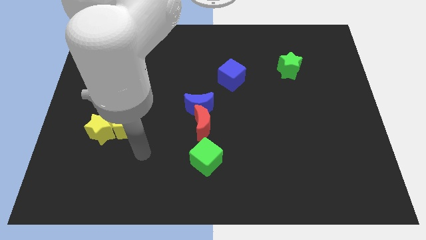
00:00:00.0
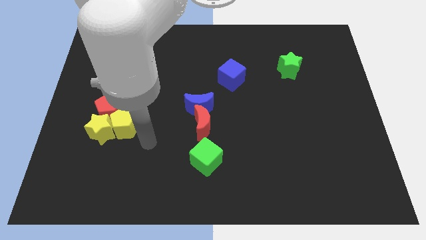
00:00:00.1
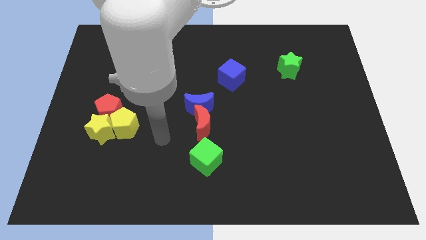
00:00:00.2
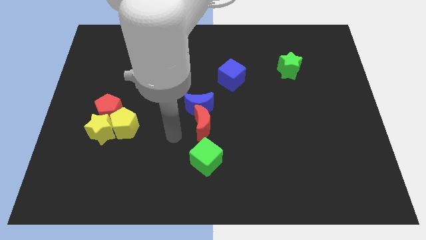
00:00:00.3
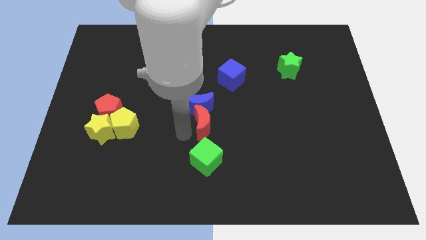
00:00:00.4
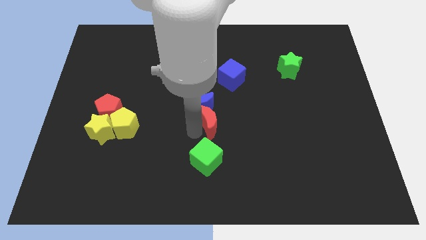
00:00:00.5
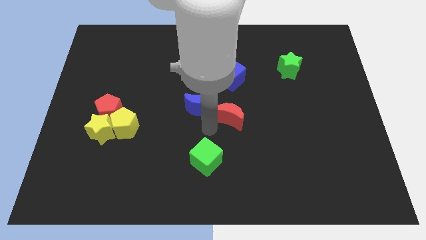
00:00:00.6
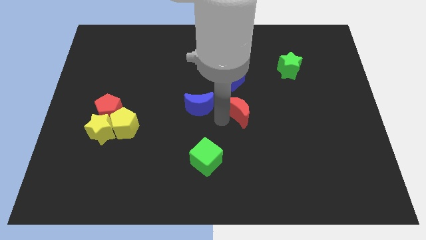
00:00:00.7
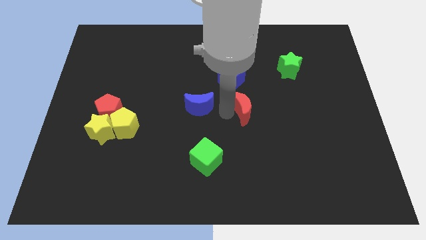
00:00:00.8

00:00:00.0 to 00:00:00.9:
separate the blue moon from the red moon

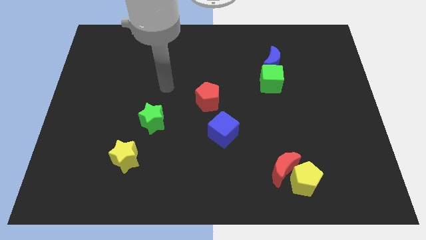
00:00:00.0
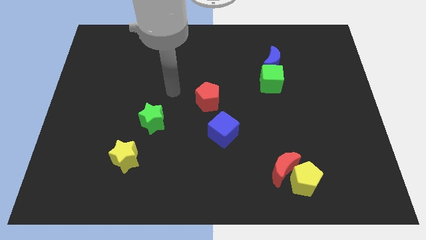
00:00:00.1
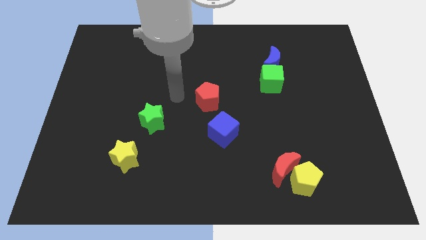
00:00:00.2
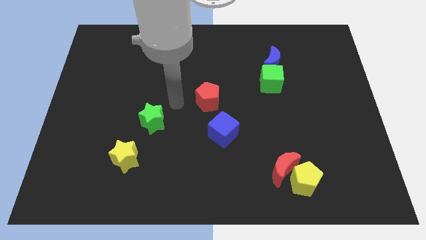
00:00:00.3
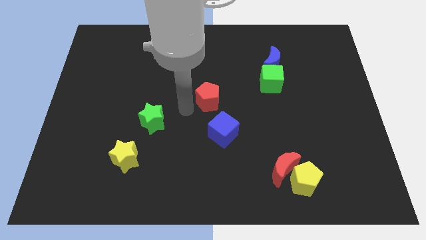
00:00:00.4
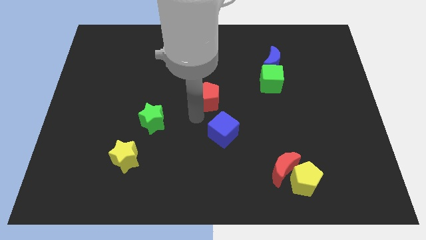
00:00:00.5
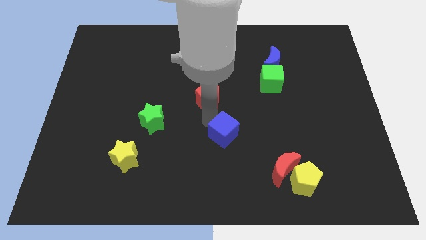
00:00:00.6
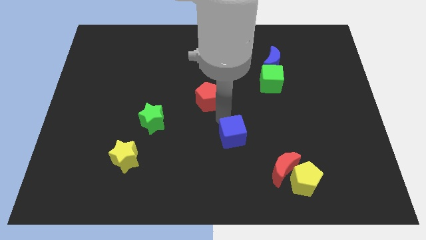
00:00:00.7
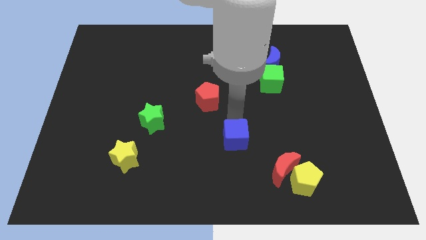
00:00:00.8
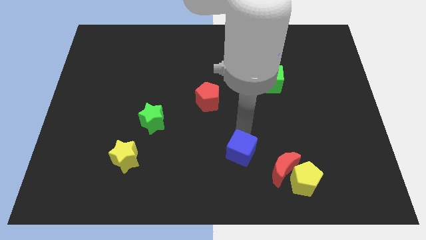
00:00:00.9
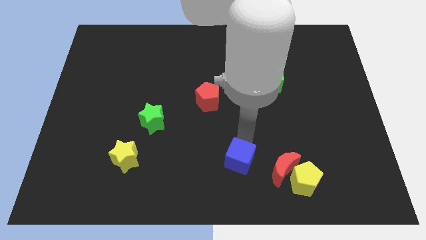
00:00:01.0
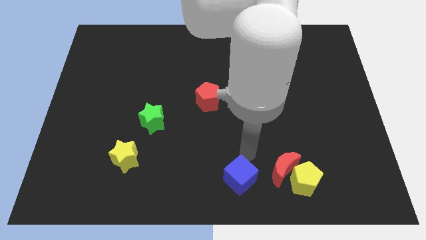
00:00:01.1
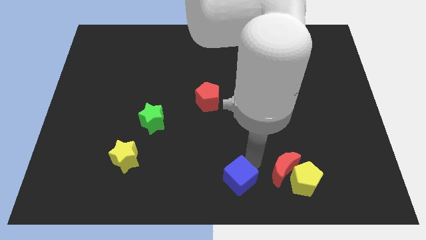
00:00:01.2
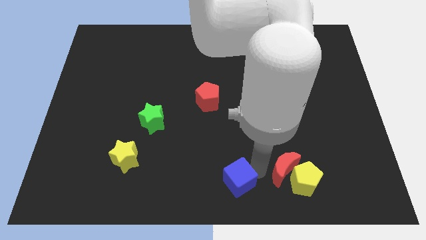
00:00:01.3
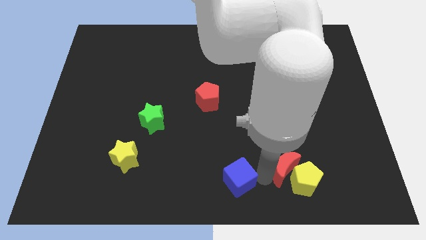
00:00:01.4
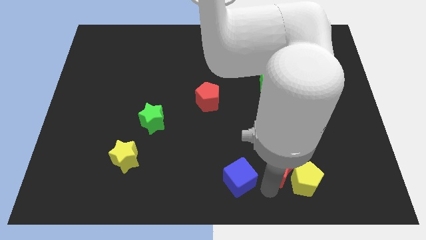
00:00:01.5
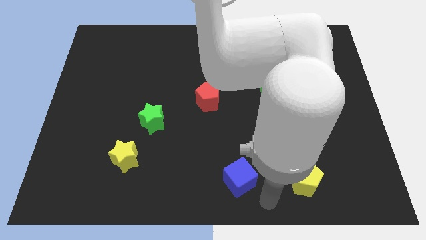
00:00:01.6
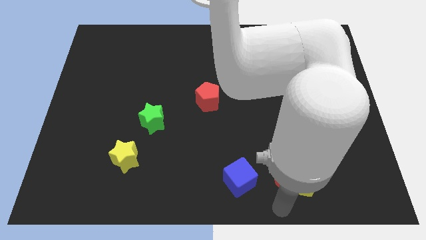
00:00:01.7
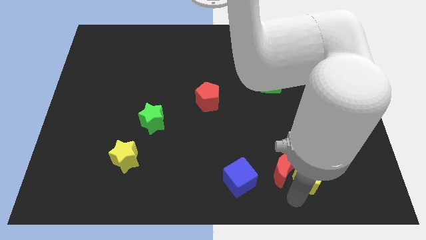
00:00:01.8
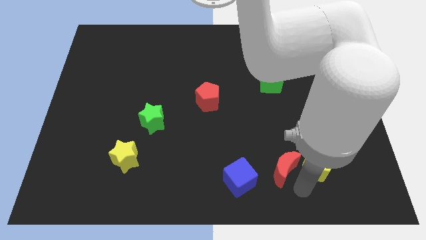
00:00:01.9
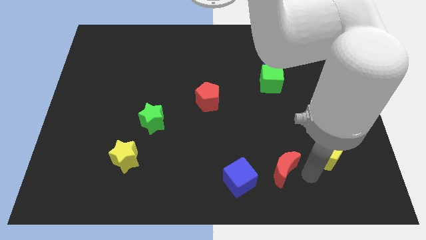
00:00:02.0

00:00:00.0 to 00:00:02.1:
separate the red moon from the yellow pentagon

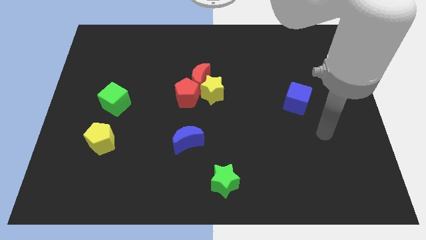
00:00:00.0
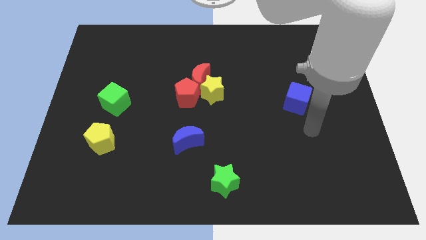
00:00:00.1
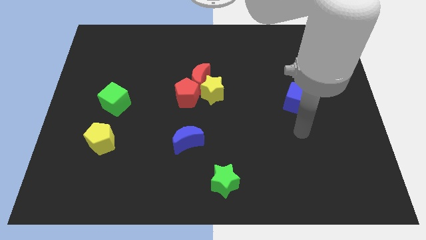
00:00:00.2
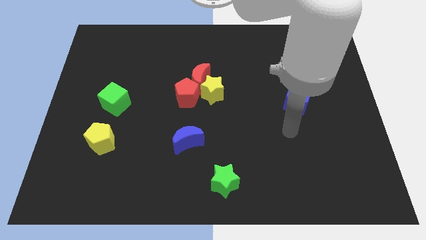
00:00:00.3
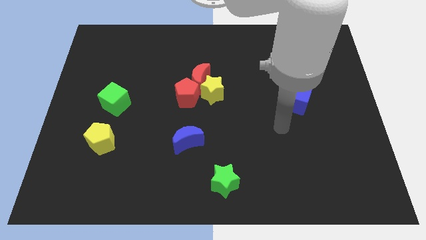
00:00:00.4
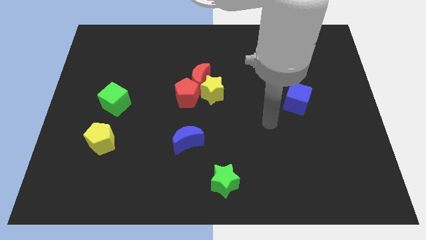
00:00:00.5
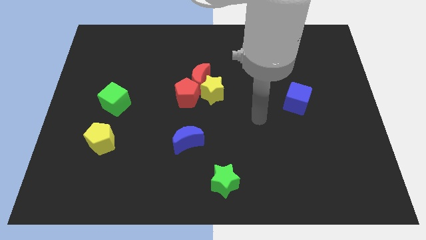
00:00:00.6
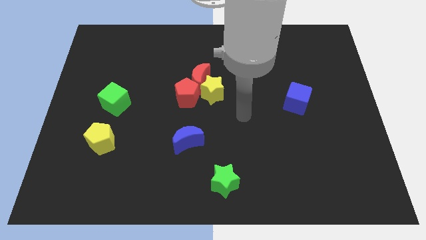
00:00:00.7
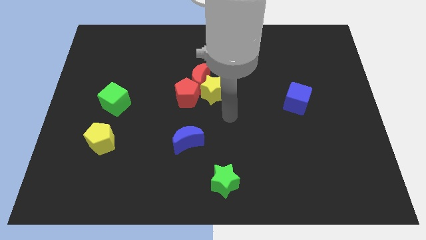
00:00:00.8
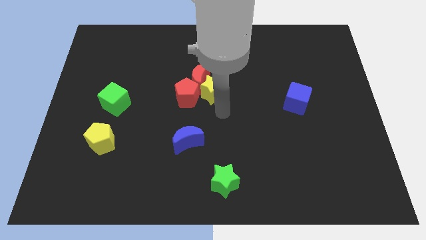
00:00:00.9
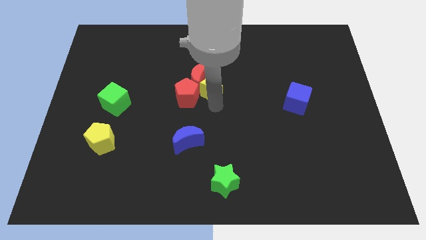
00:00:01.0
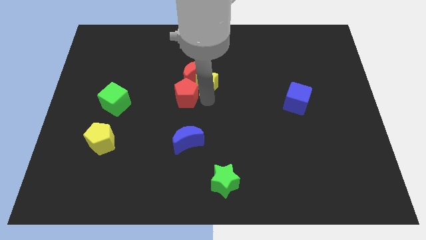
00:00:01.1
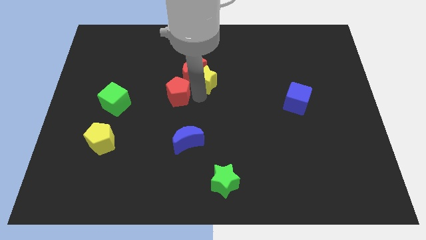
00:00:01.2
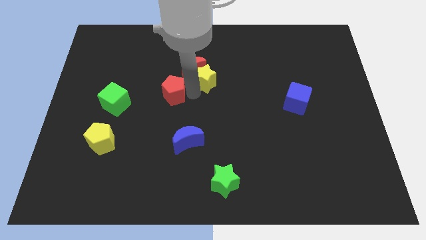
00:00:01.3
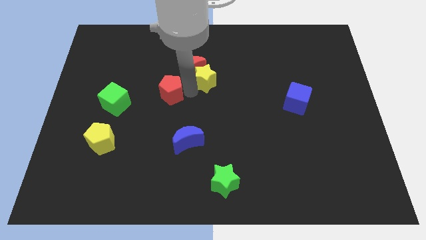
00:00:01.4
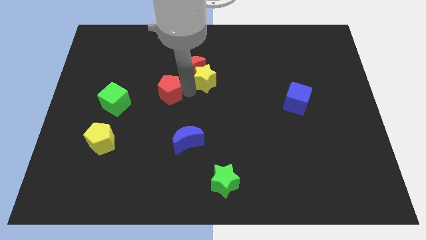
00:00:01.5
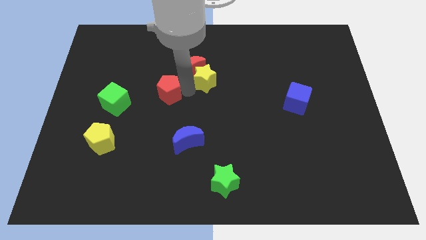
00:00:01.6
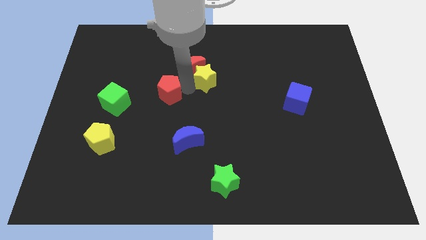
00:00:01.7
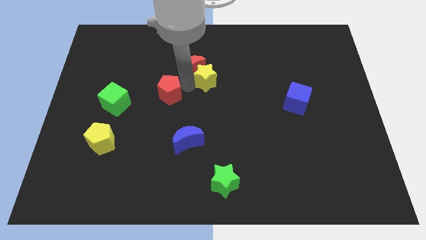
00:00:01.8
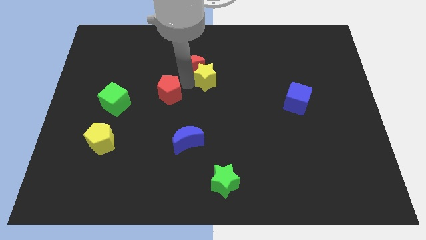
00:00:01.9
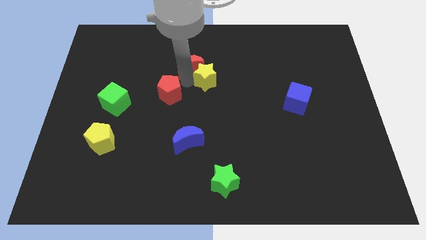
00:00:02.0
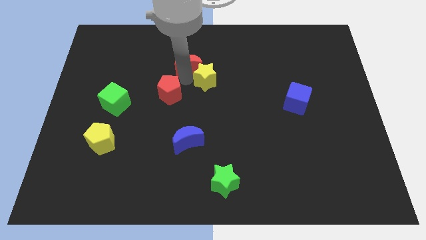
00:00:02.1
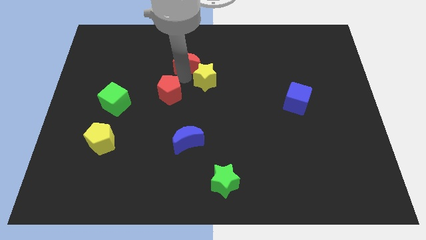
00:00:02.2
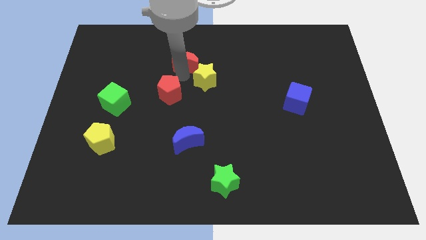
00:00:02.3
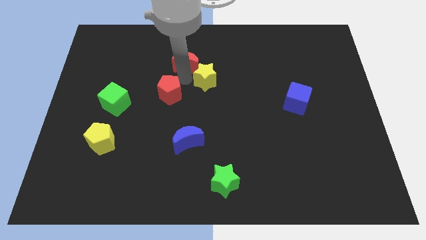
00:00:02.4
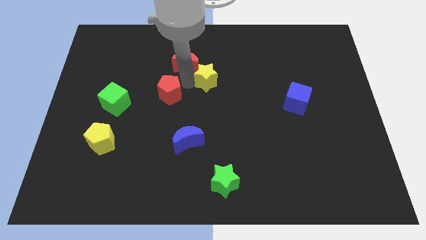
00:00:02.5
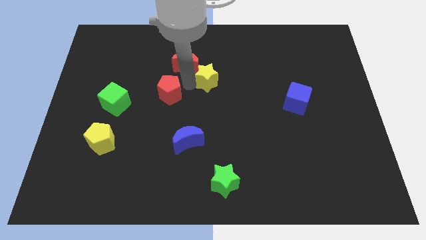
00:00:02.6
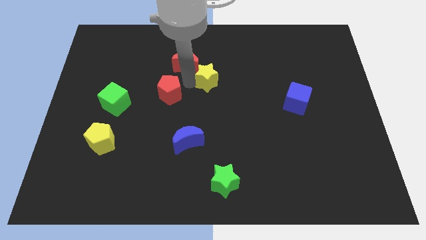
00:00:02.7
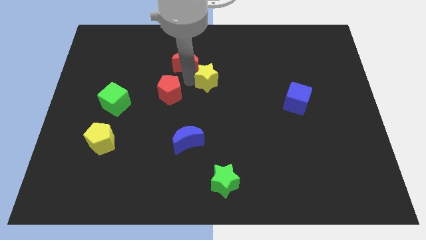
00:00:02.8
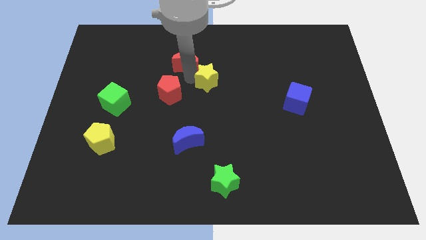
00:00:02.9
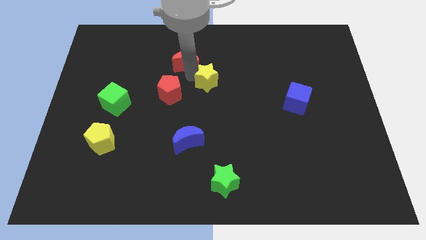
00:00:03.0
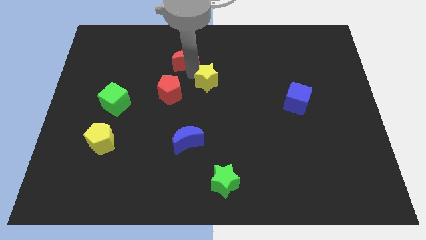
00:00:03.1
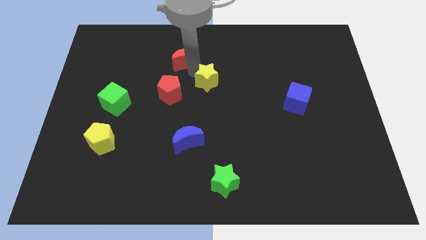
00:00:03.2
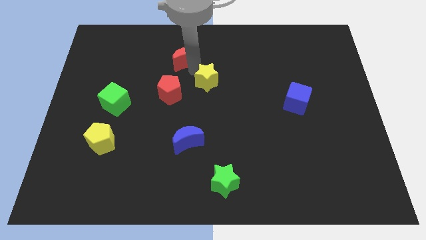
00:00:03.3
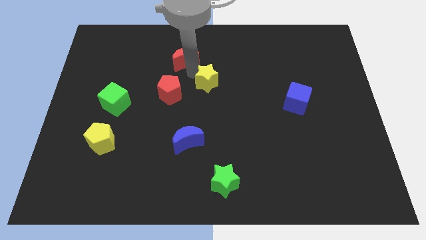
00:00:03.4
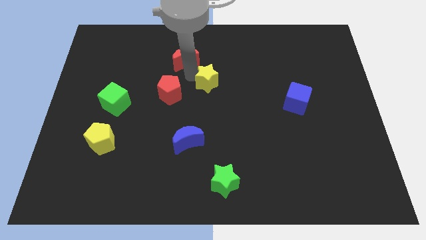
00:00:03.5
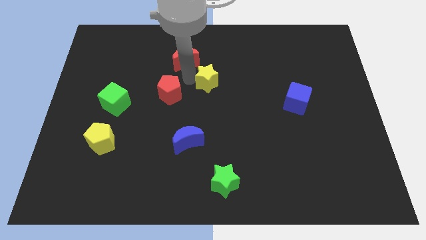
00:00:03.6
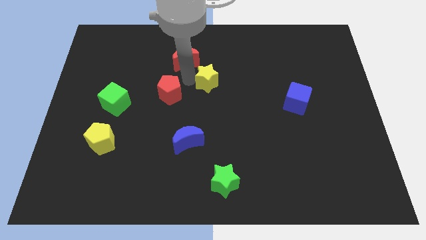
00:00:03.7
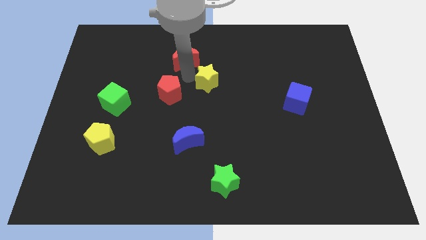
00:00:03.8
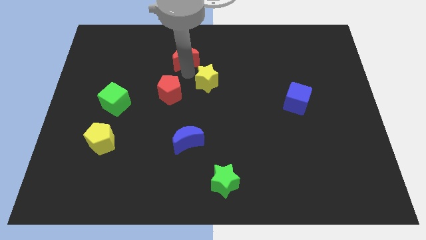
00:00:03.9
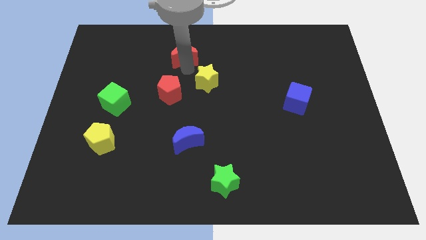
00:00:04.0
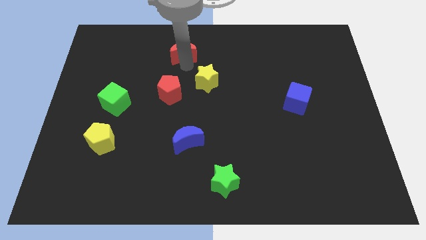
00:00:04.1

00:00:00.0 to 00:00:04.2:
pull the red moon apart from the yellow star and red pentagon

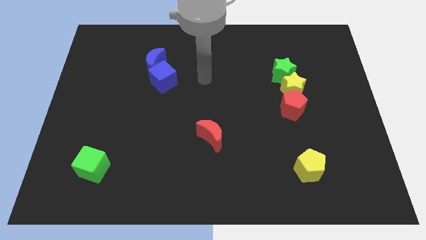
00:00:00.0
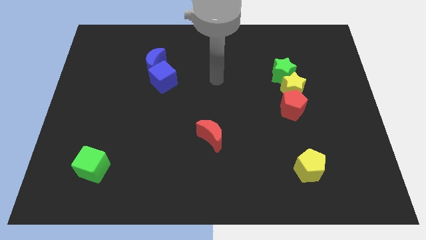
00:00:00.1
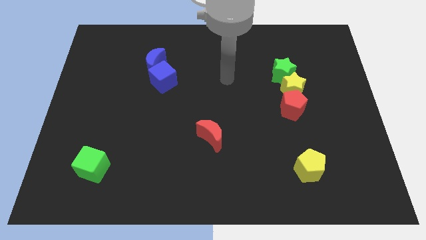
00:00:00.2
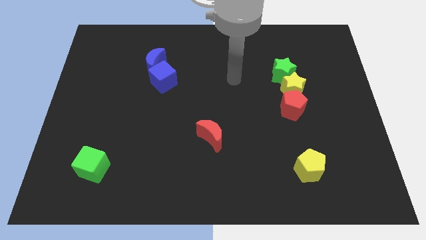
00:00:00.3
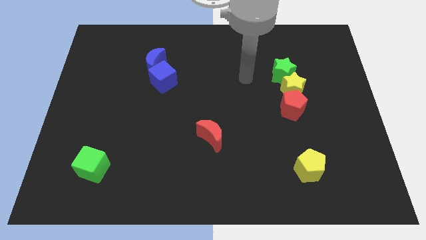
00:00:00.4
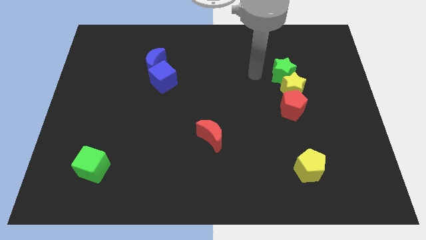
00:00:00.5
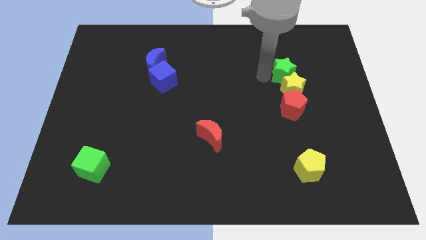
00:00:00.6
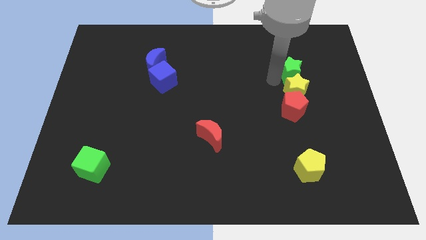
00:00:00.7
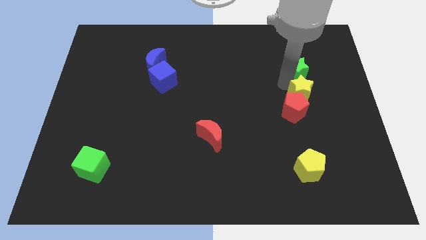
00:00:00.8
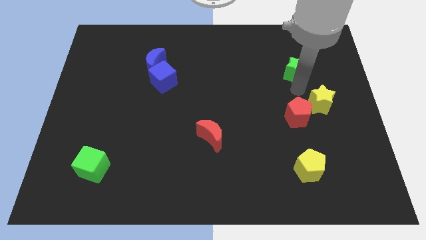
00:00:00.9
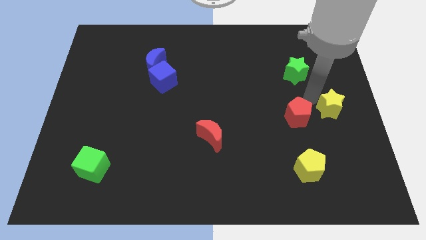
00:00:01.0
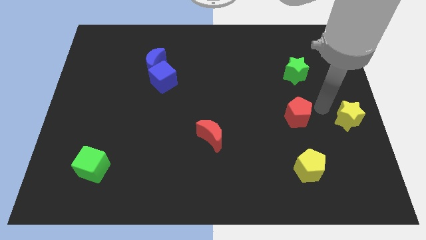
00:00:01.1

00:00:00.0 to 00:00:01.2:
pull the red pentagon apart from the yellow star

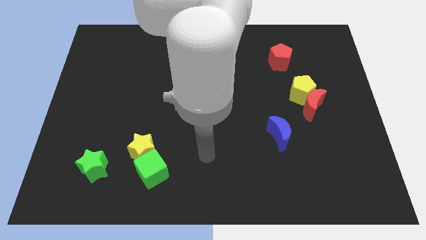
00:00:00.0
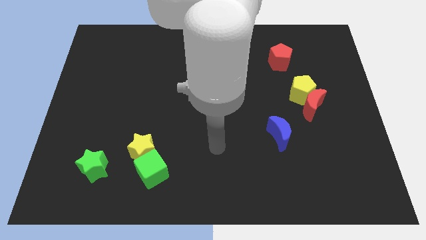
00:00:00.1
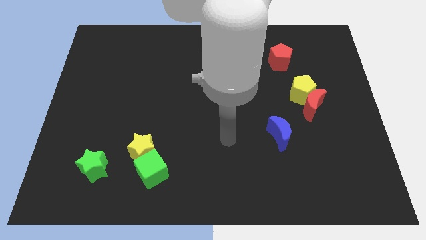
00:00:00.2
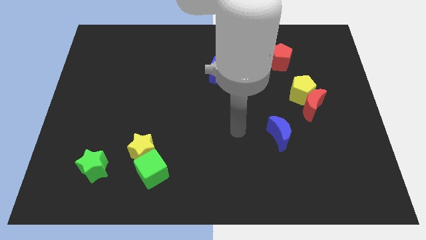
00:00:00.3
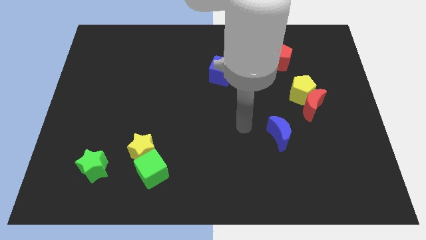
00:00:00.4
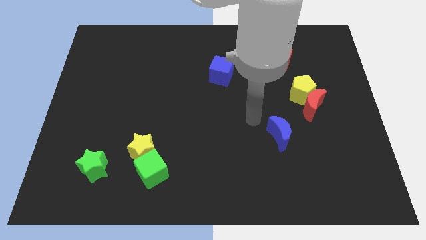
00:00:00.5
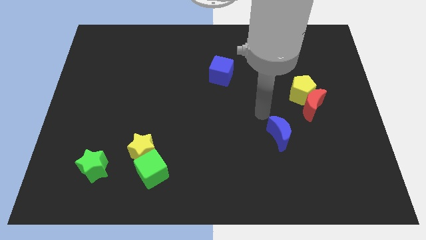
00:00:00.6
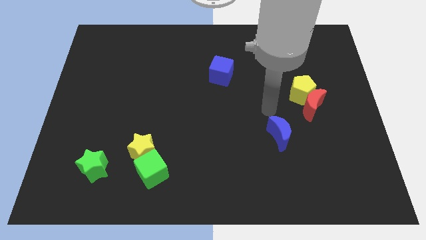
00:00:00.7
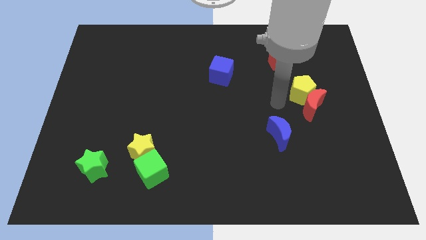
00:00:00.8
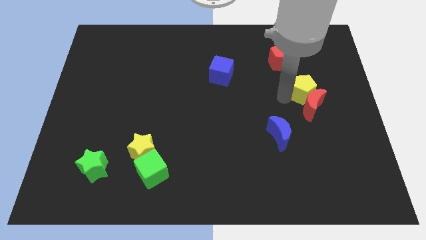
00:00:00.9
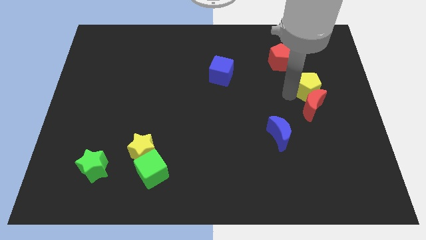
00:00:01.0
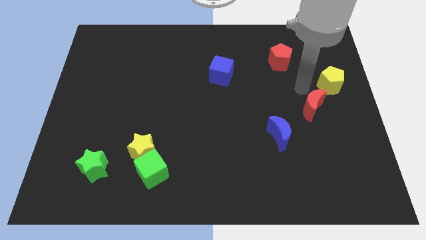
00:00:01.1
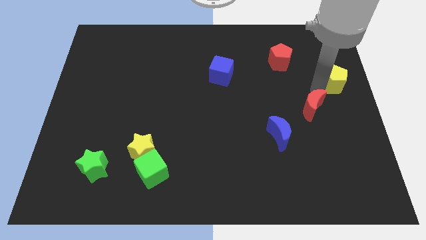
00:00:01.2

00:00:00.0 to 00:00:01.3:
move the red moon away from the yellow pentagon
